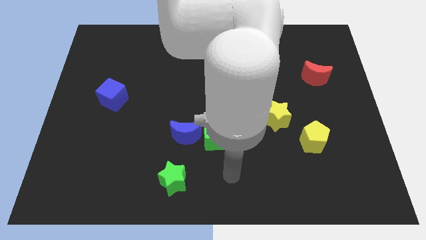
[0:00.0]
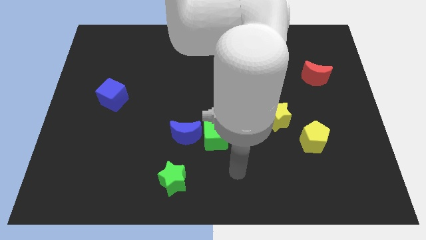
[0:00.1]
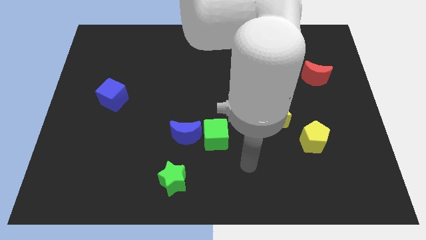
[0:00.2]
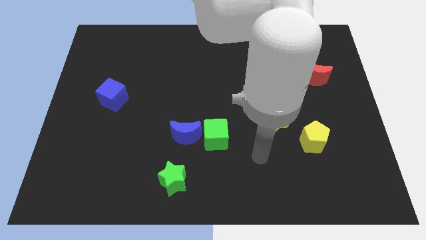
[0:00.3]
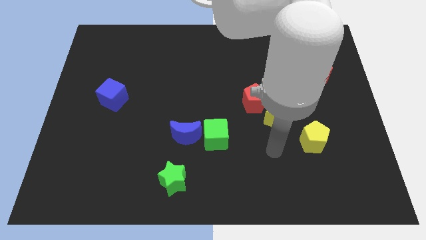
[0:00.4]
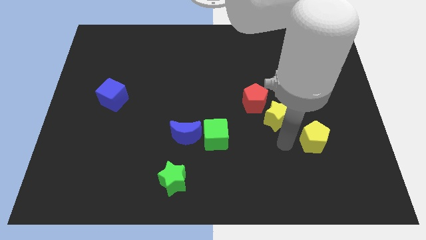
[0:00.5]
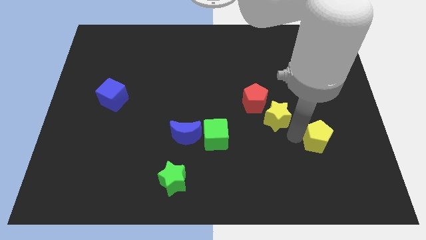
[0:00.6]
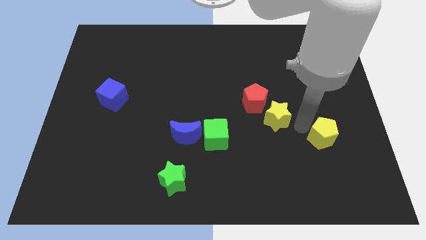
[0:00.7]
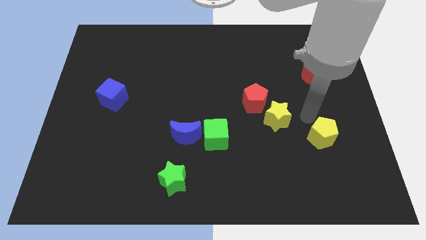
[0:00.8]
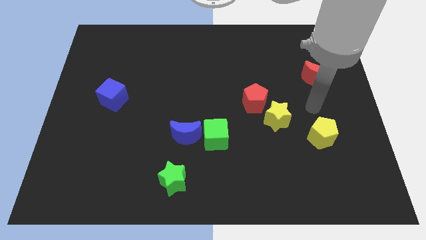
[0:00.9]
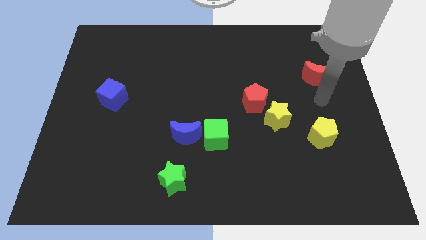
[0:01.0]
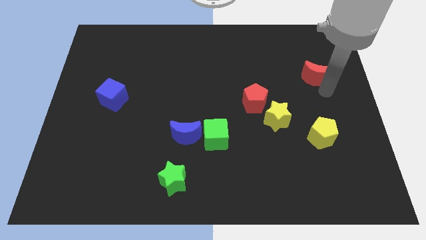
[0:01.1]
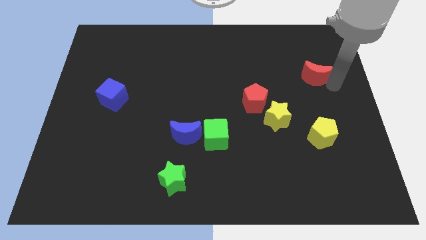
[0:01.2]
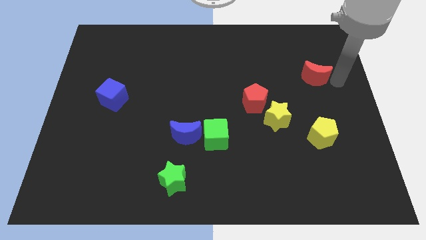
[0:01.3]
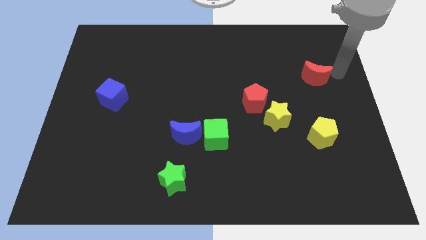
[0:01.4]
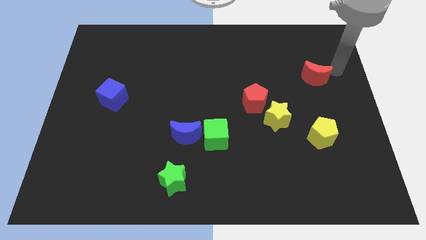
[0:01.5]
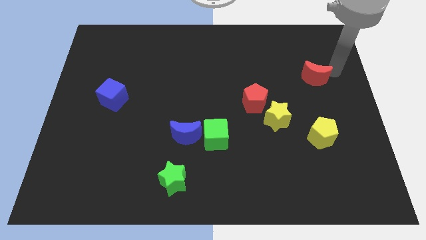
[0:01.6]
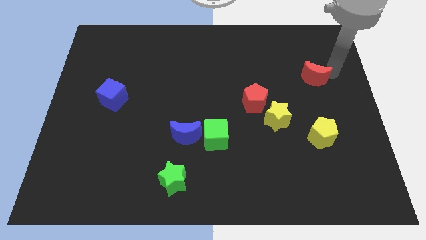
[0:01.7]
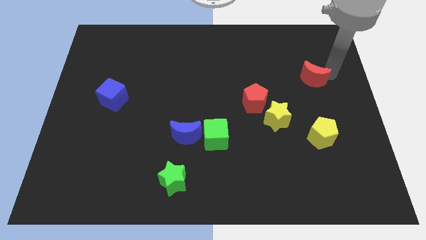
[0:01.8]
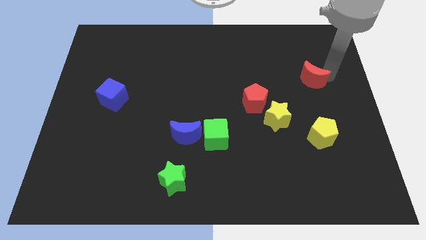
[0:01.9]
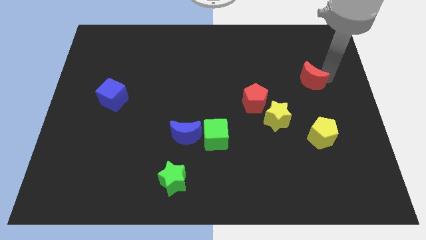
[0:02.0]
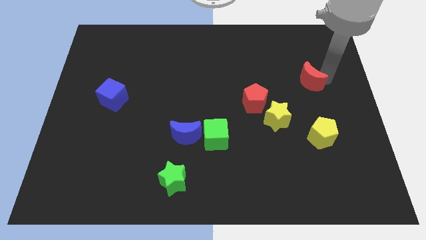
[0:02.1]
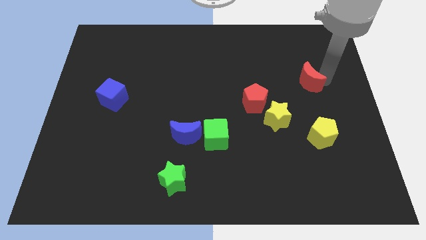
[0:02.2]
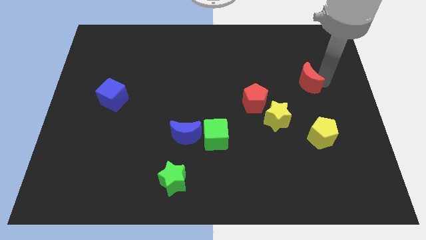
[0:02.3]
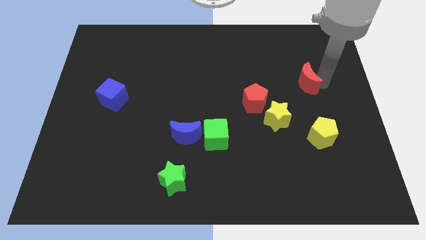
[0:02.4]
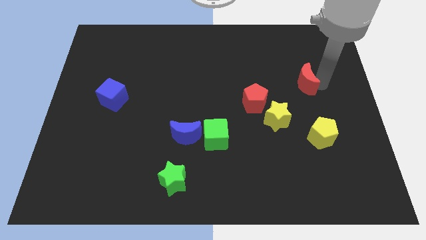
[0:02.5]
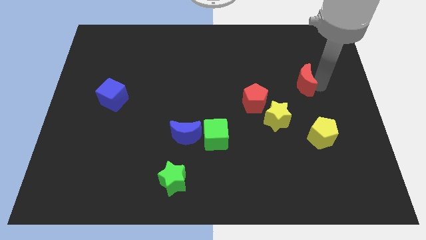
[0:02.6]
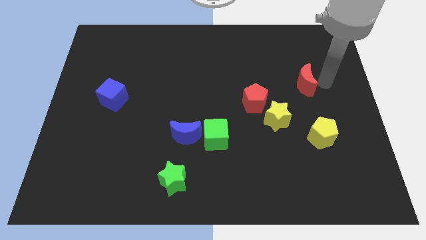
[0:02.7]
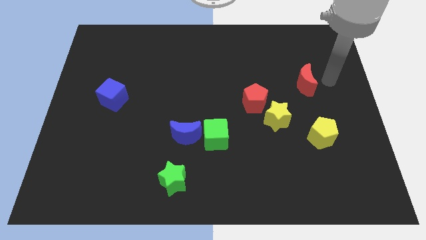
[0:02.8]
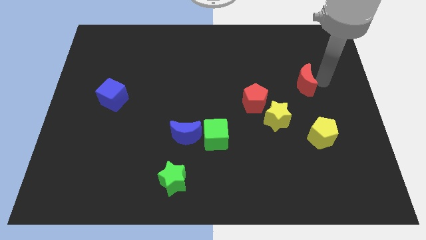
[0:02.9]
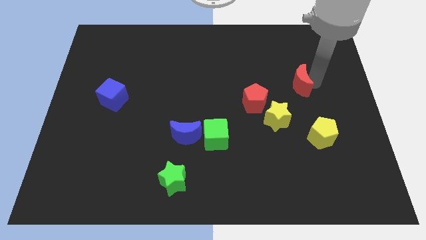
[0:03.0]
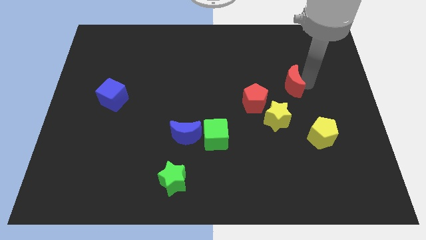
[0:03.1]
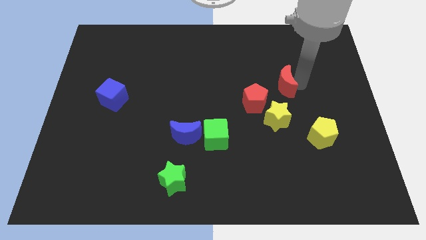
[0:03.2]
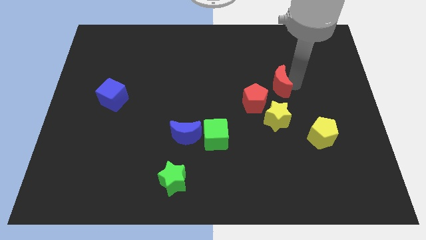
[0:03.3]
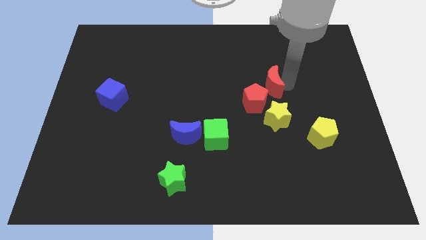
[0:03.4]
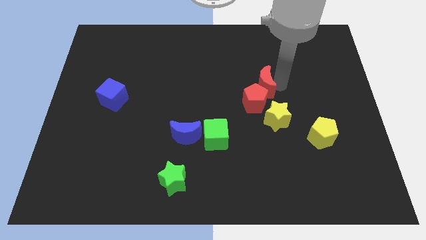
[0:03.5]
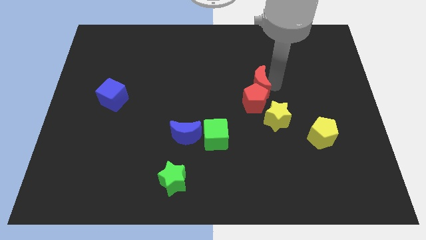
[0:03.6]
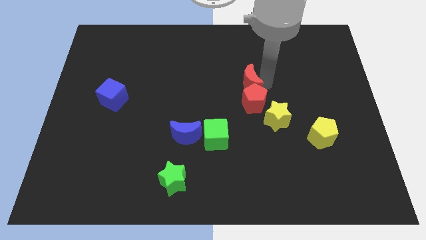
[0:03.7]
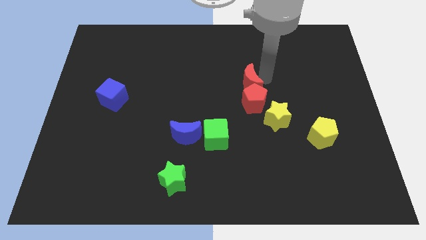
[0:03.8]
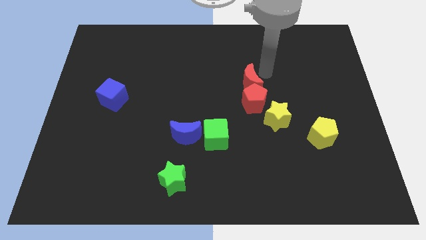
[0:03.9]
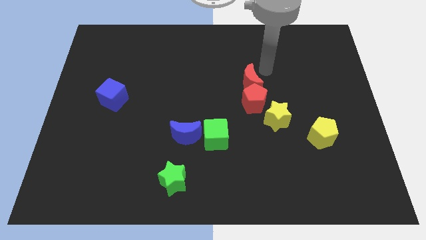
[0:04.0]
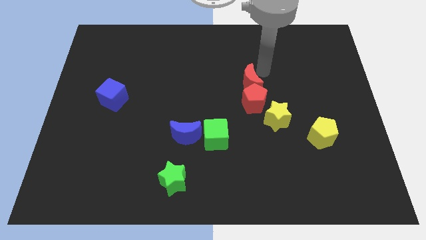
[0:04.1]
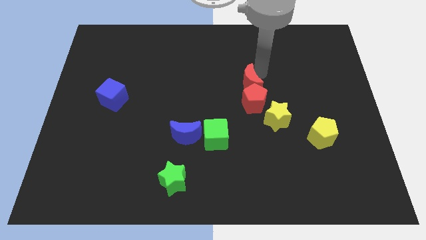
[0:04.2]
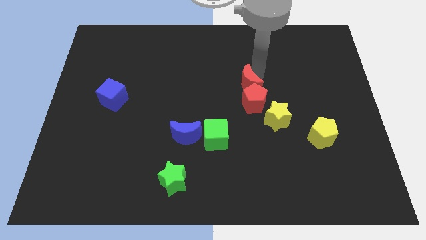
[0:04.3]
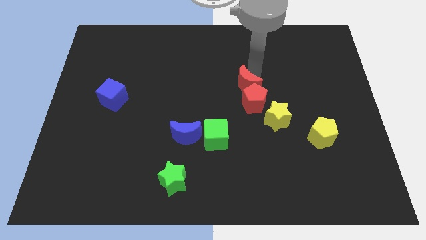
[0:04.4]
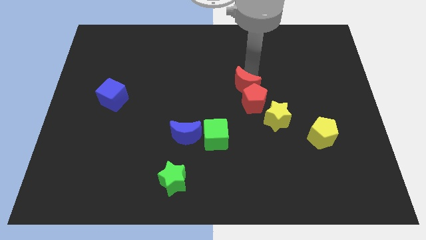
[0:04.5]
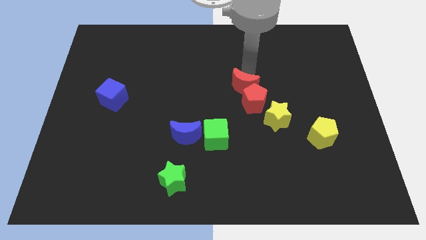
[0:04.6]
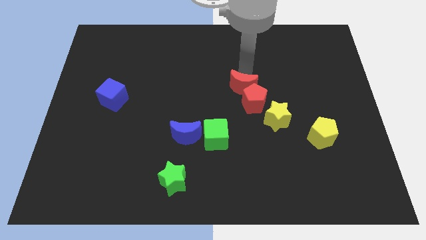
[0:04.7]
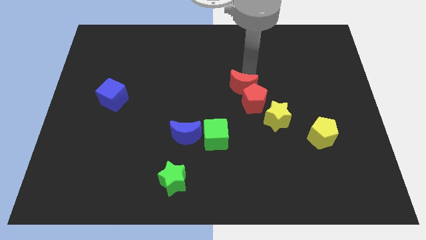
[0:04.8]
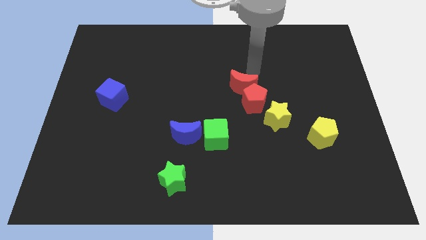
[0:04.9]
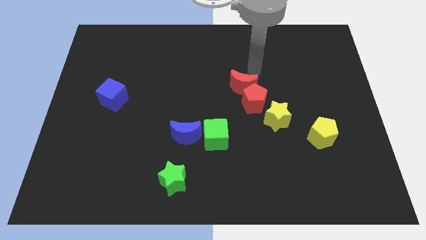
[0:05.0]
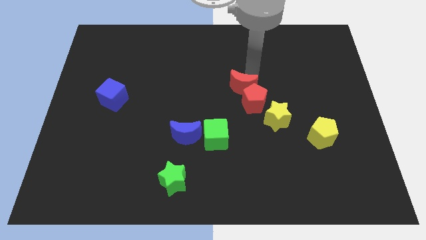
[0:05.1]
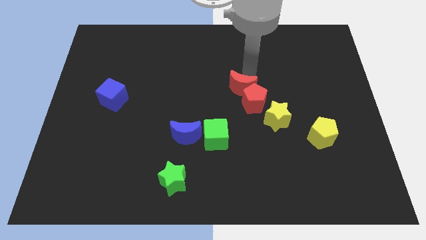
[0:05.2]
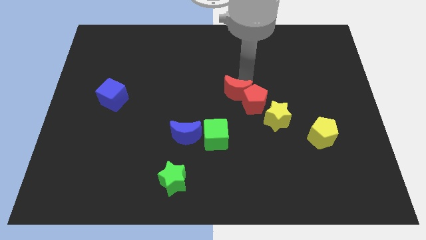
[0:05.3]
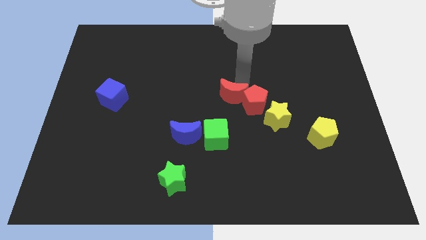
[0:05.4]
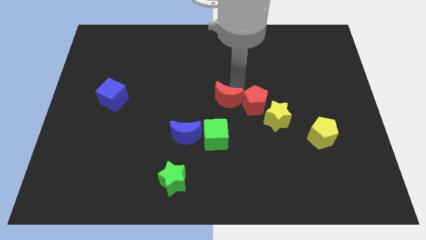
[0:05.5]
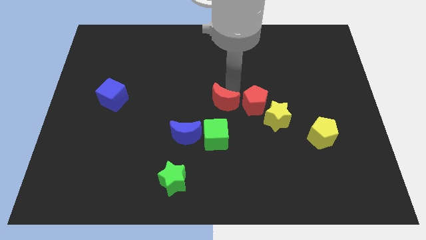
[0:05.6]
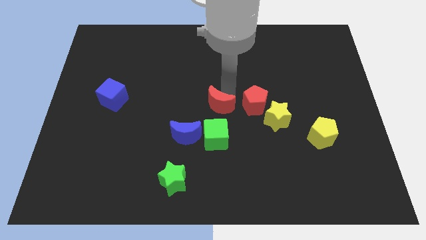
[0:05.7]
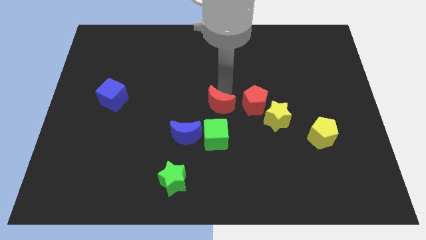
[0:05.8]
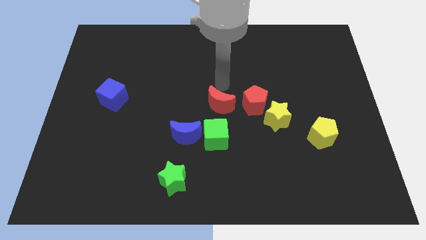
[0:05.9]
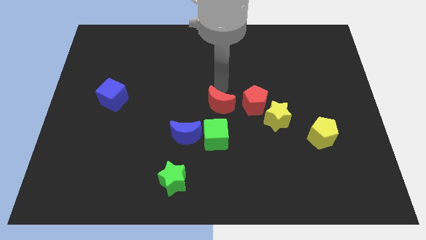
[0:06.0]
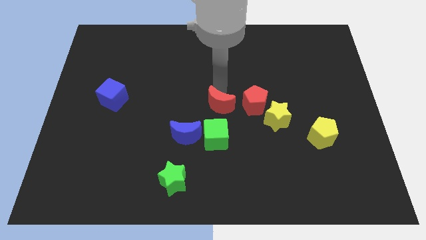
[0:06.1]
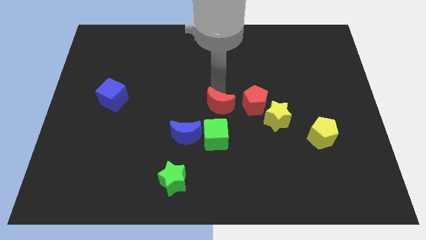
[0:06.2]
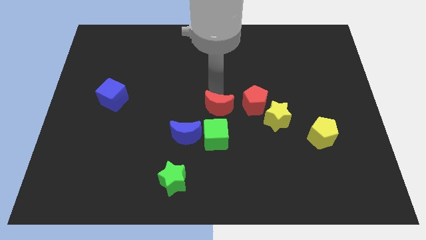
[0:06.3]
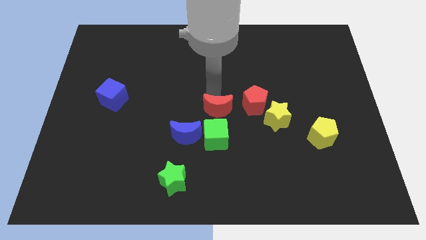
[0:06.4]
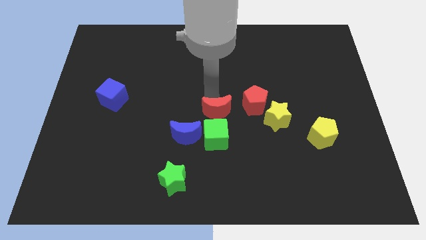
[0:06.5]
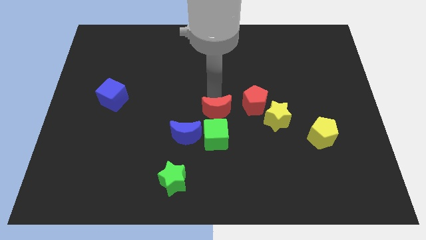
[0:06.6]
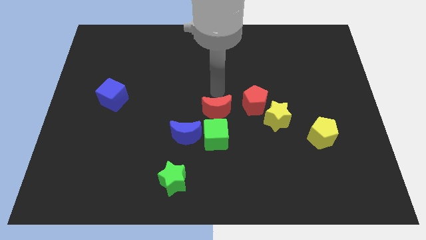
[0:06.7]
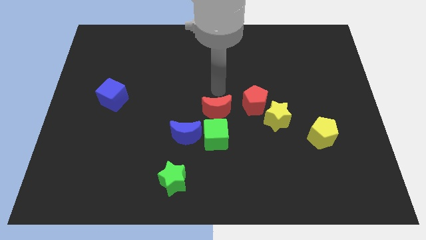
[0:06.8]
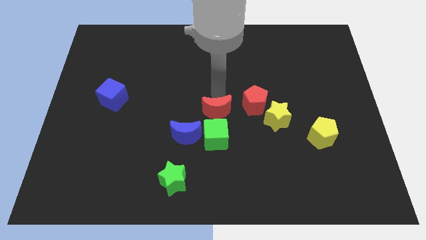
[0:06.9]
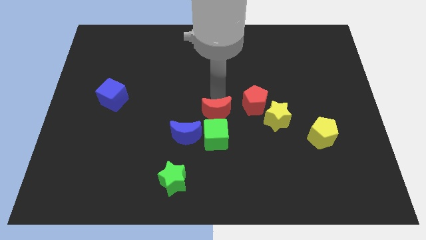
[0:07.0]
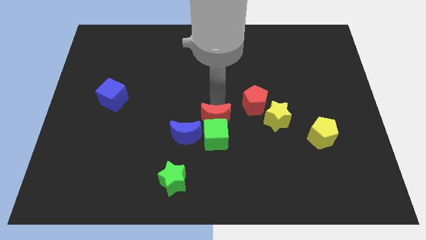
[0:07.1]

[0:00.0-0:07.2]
put the red moon next to the green cube
